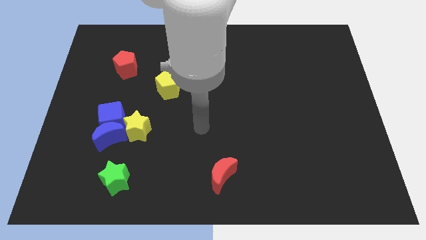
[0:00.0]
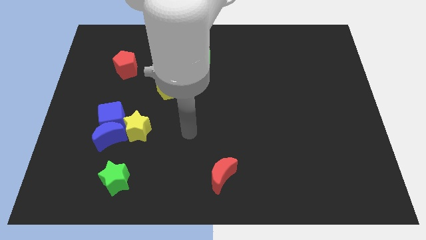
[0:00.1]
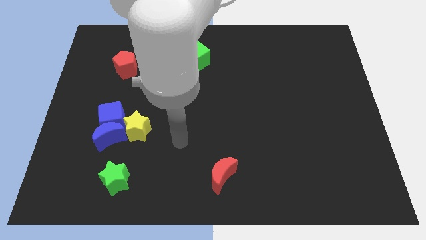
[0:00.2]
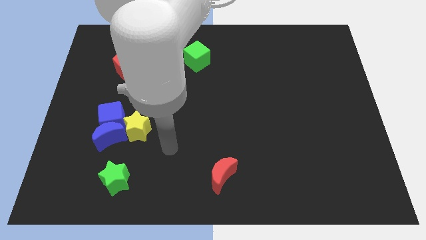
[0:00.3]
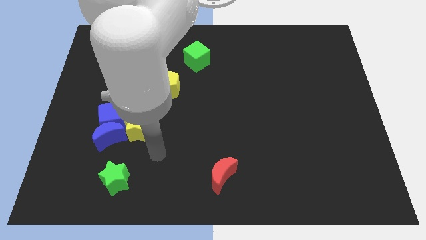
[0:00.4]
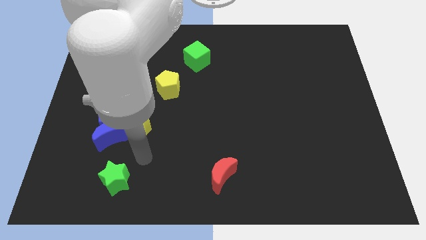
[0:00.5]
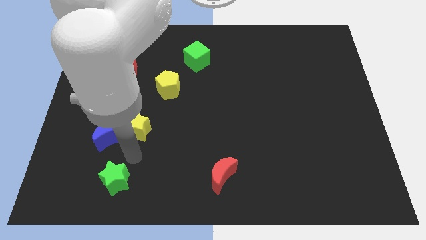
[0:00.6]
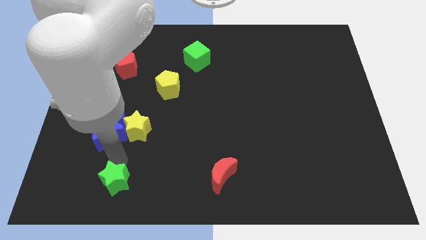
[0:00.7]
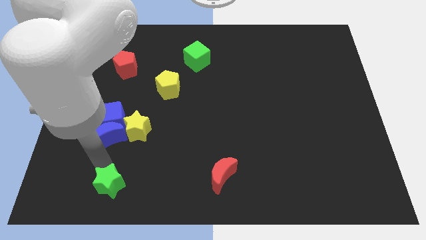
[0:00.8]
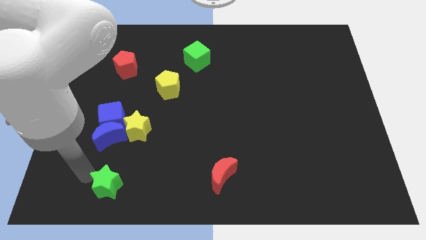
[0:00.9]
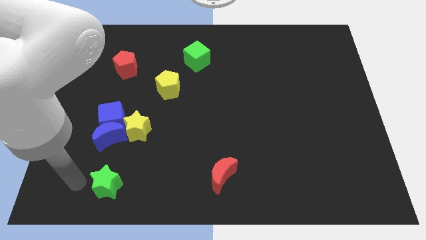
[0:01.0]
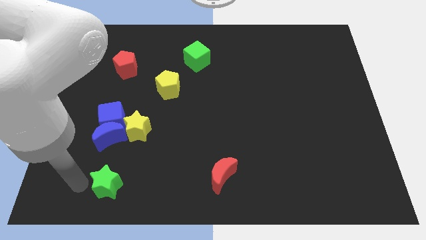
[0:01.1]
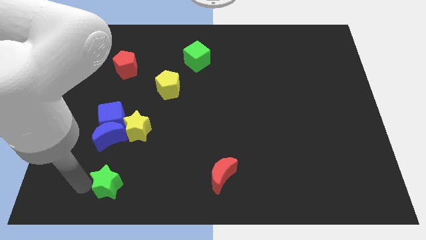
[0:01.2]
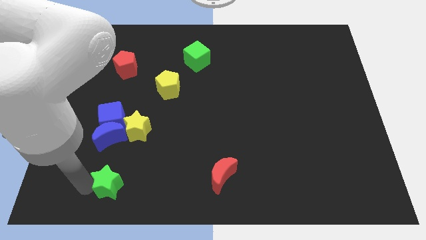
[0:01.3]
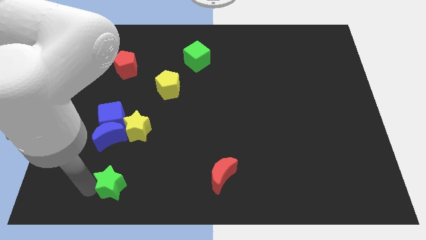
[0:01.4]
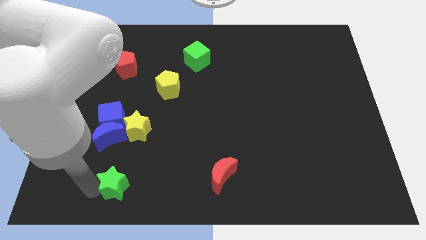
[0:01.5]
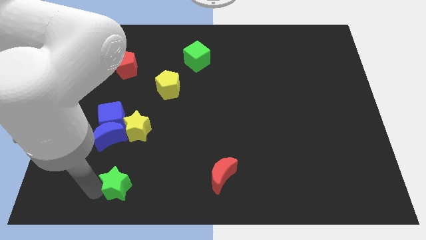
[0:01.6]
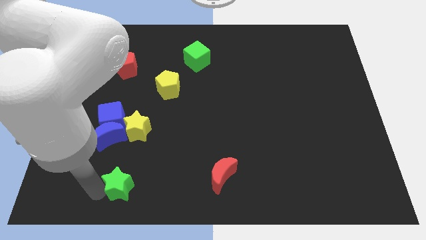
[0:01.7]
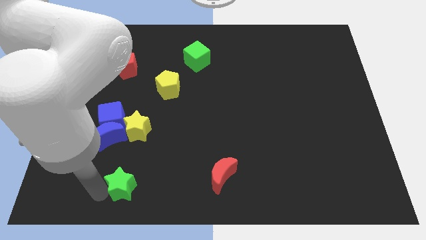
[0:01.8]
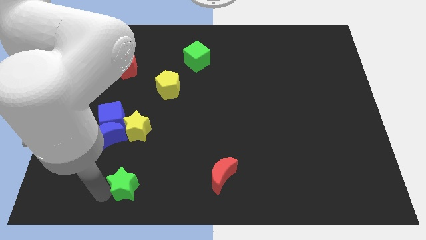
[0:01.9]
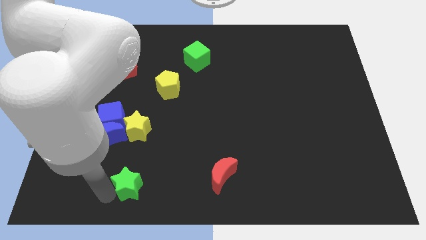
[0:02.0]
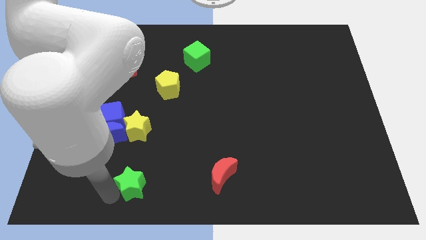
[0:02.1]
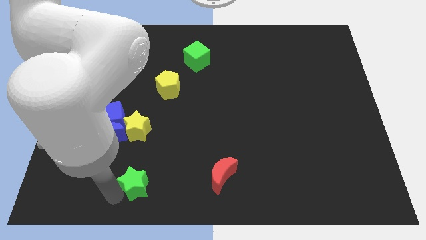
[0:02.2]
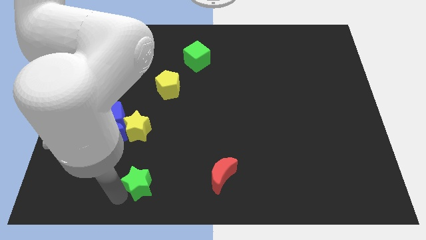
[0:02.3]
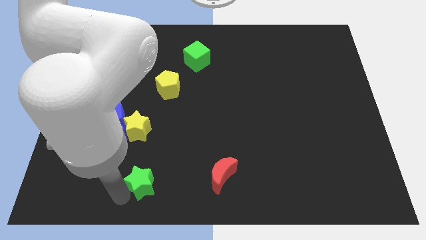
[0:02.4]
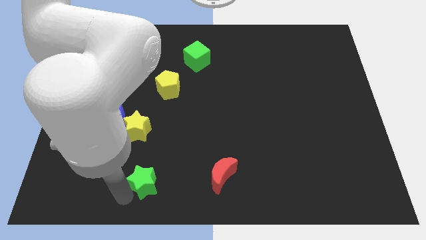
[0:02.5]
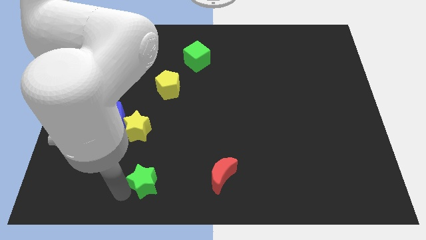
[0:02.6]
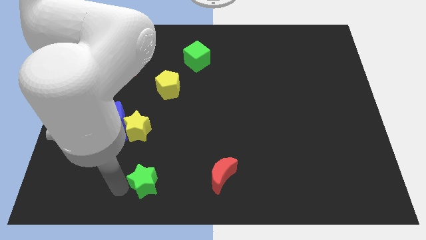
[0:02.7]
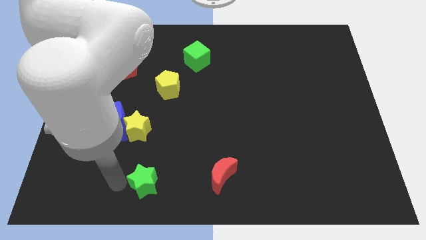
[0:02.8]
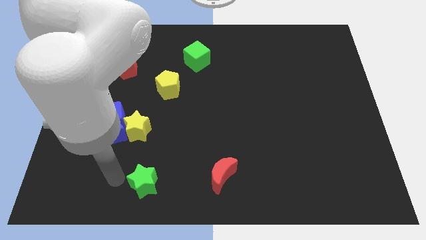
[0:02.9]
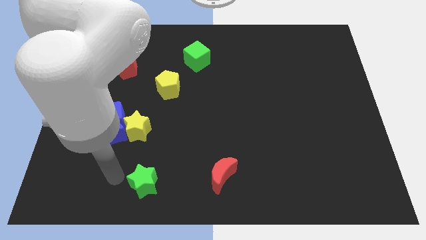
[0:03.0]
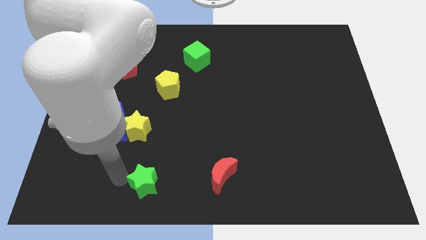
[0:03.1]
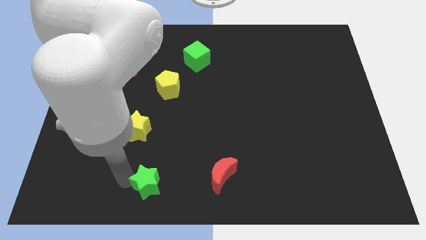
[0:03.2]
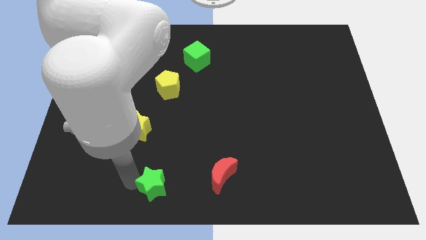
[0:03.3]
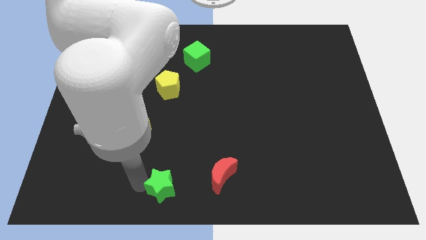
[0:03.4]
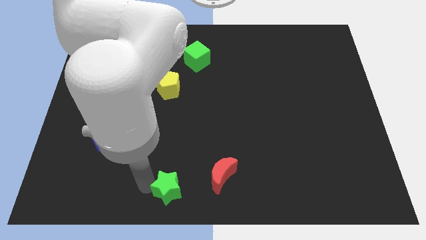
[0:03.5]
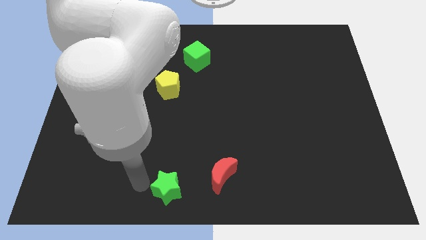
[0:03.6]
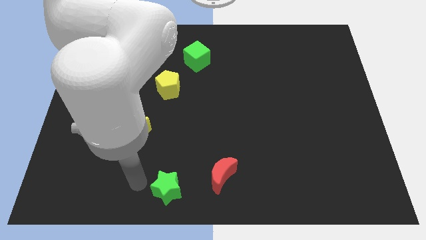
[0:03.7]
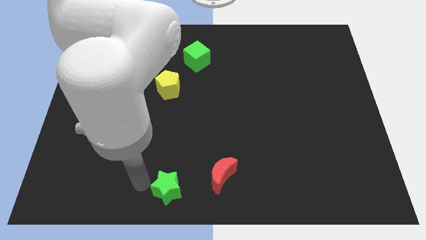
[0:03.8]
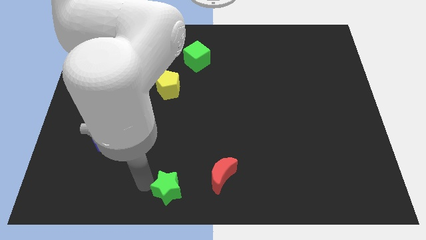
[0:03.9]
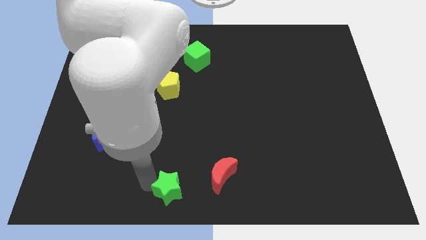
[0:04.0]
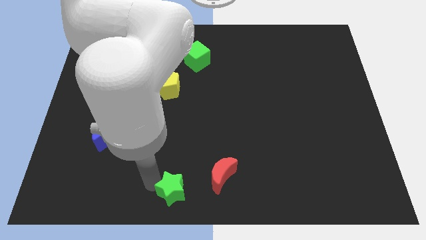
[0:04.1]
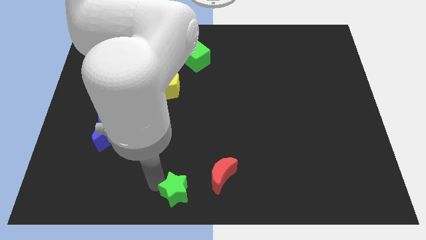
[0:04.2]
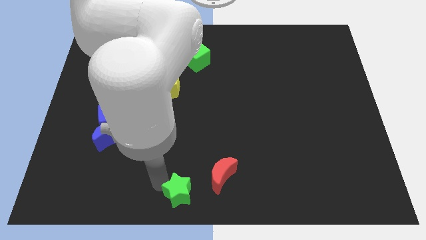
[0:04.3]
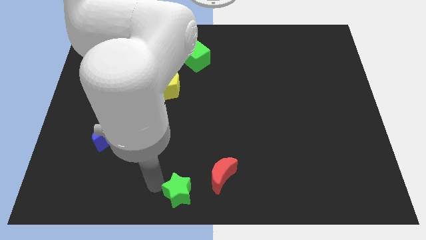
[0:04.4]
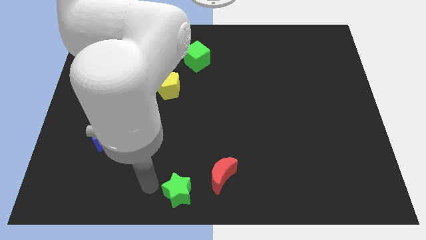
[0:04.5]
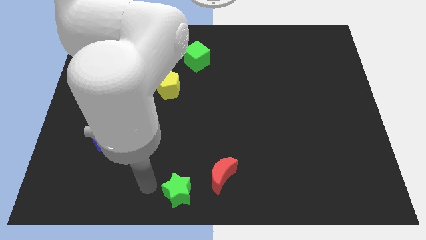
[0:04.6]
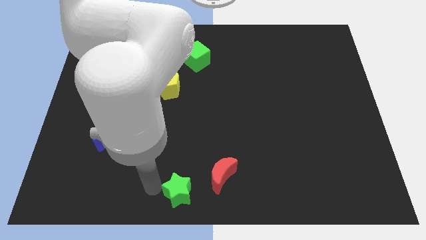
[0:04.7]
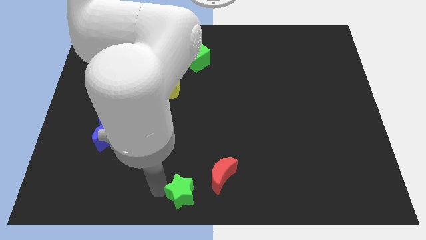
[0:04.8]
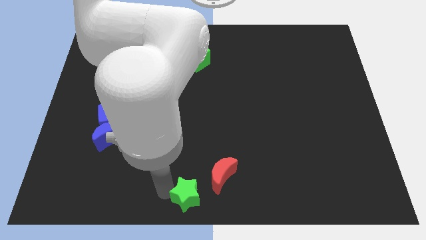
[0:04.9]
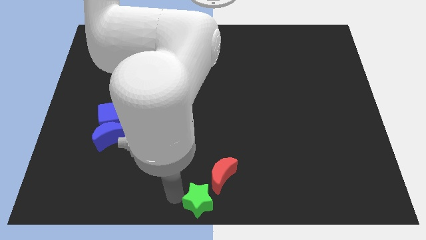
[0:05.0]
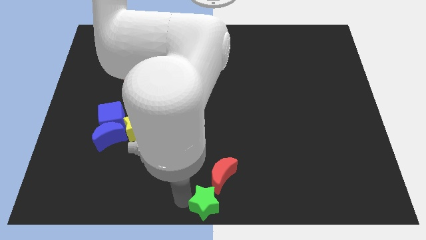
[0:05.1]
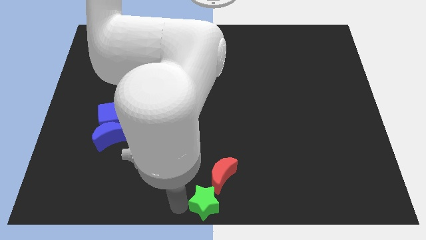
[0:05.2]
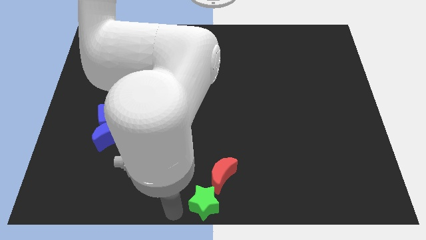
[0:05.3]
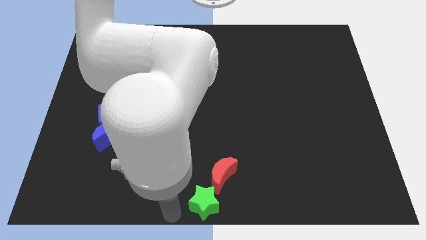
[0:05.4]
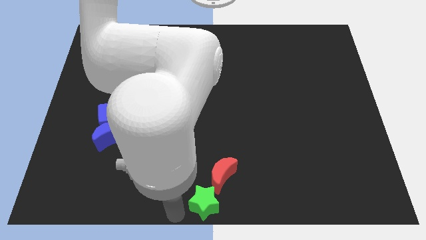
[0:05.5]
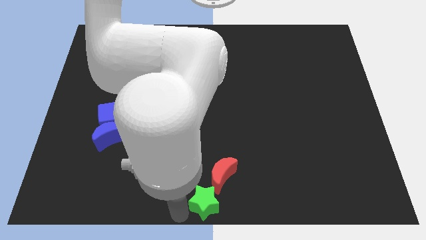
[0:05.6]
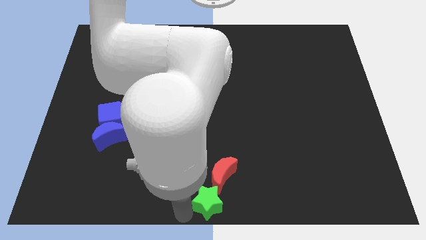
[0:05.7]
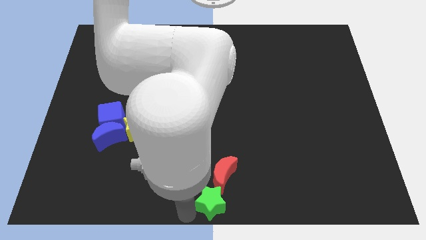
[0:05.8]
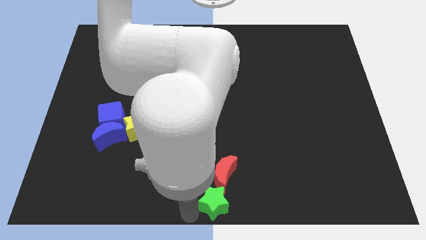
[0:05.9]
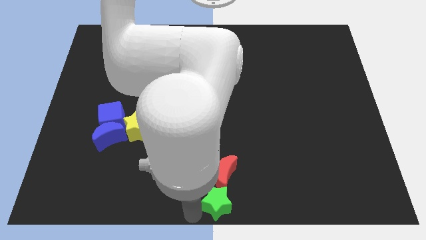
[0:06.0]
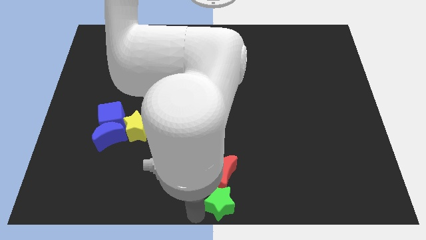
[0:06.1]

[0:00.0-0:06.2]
move the green star right

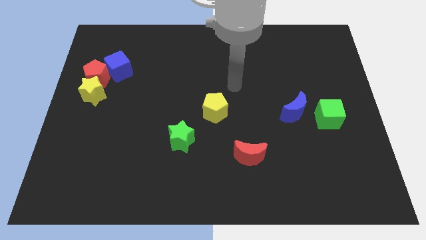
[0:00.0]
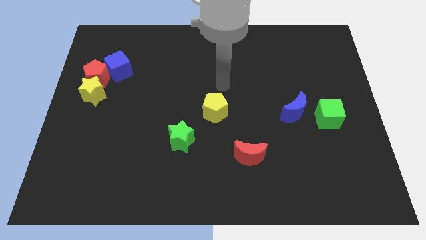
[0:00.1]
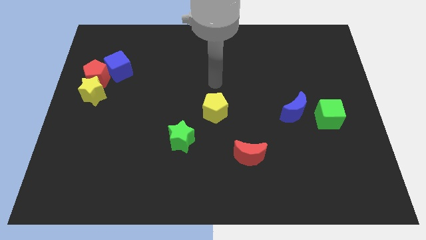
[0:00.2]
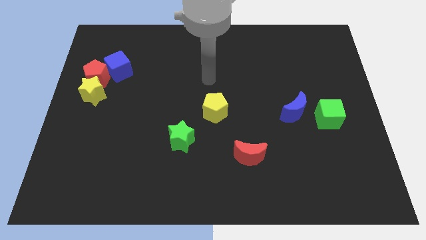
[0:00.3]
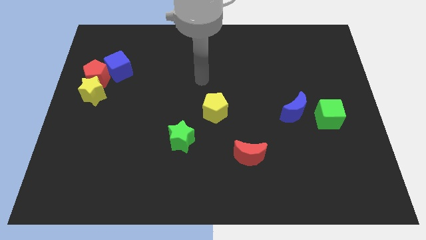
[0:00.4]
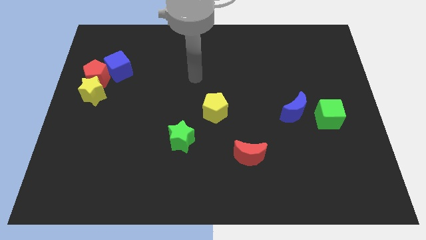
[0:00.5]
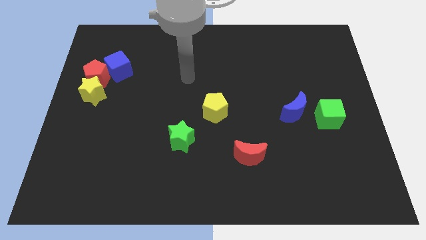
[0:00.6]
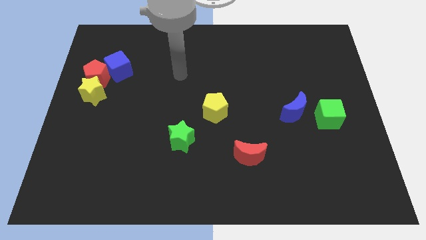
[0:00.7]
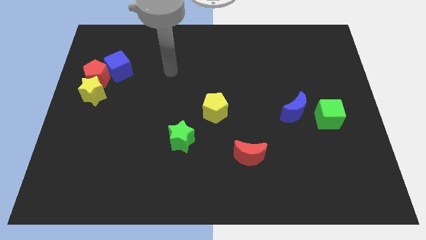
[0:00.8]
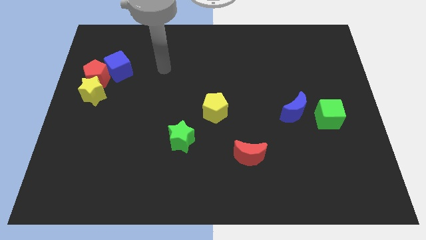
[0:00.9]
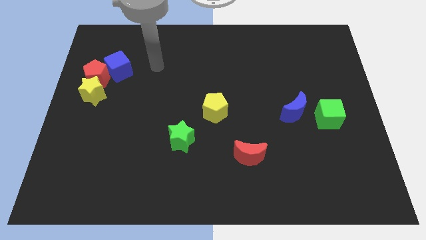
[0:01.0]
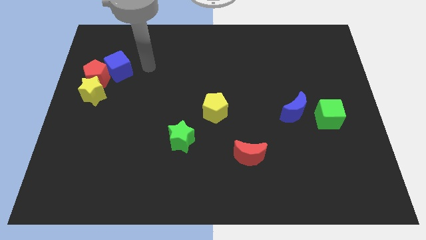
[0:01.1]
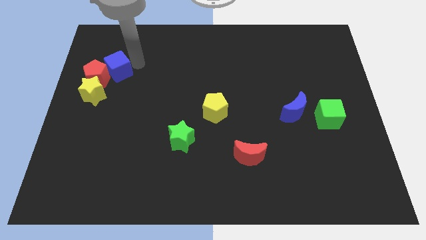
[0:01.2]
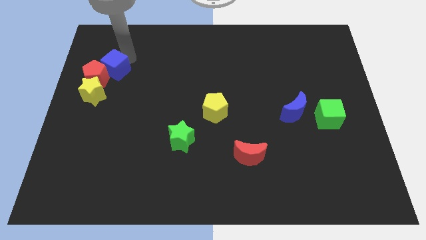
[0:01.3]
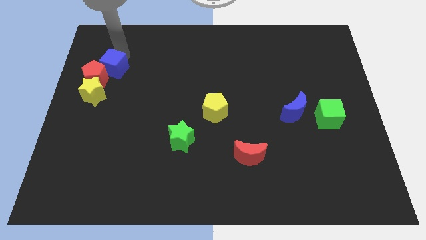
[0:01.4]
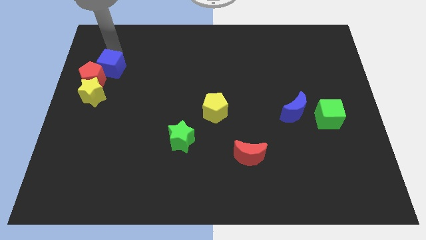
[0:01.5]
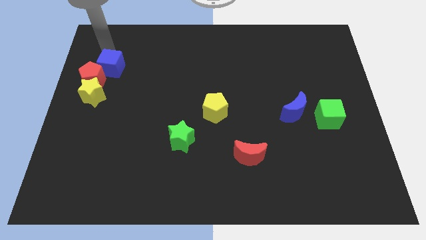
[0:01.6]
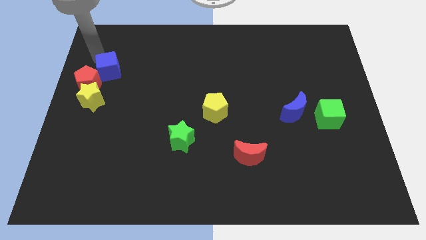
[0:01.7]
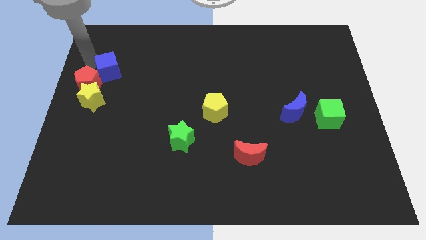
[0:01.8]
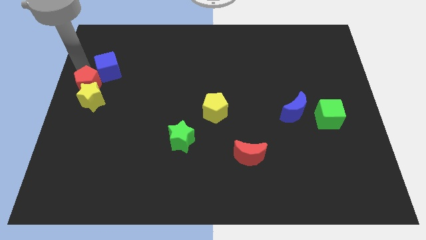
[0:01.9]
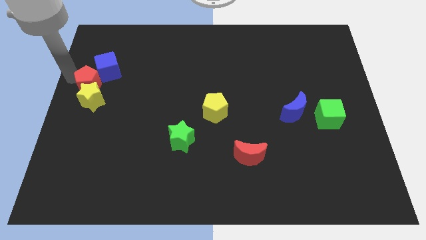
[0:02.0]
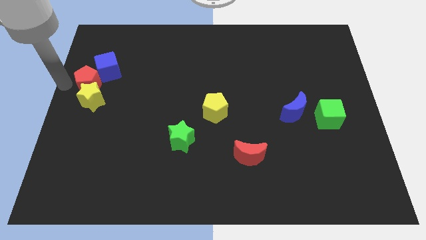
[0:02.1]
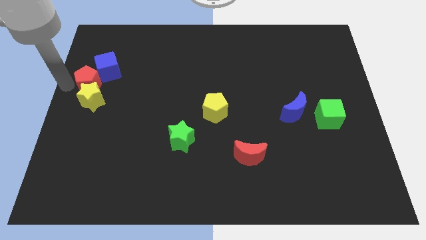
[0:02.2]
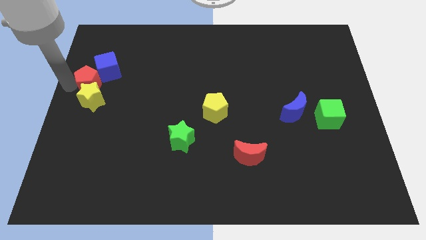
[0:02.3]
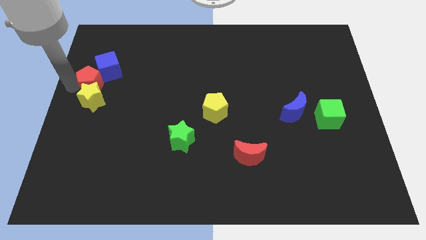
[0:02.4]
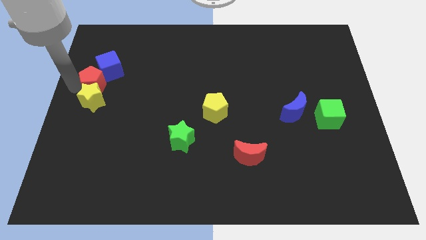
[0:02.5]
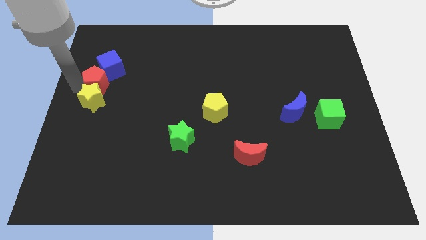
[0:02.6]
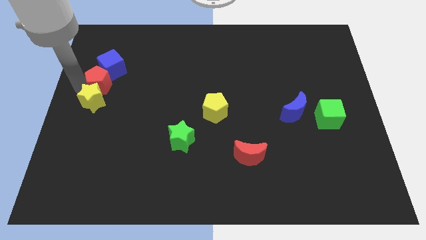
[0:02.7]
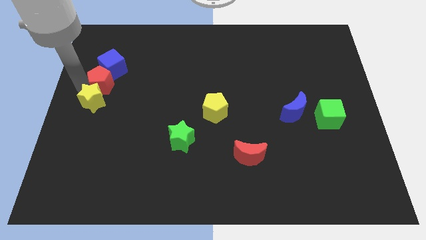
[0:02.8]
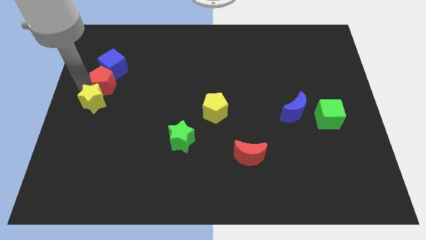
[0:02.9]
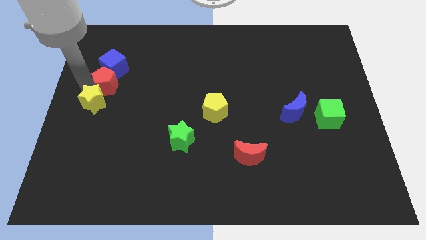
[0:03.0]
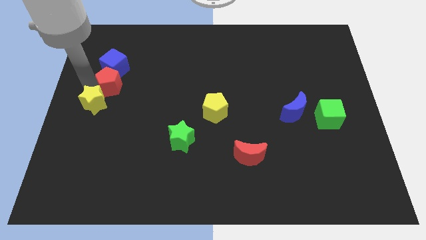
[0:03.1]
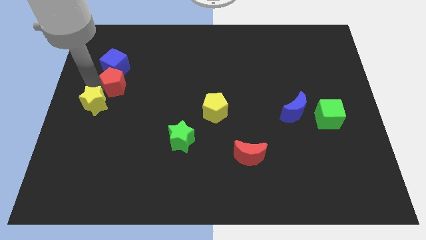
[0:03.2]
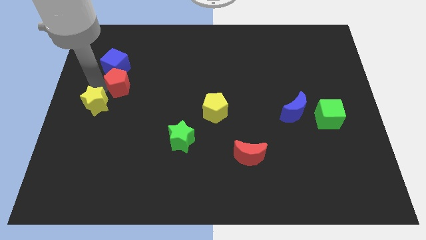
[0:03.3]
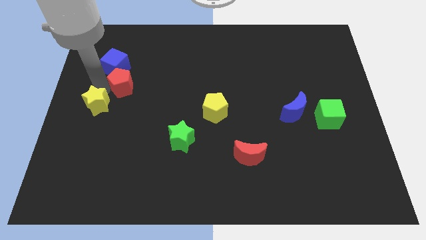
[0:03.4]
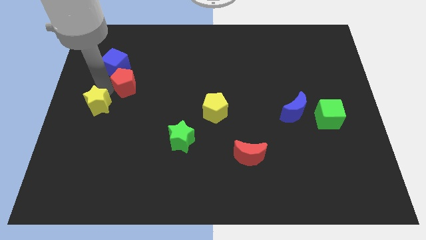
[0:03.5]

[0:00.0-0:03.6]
slide the red pentagon right slightly
